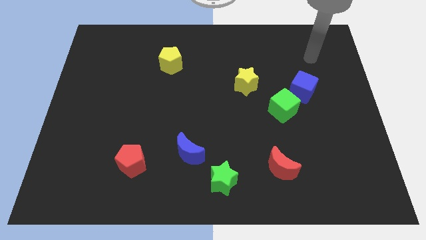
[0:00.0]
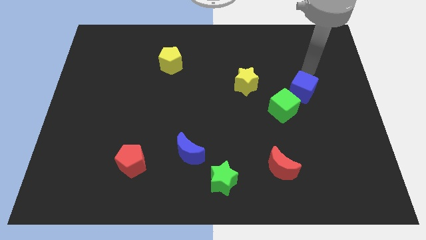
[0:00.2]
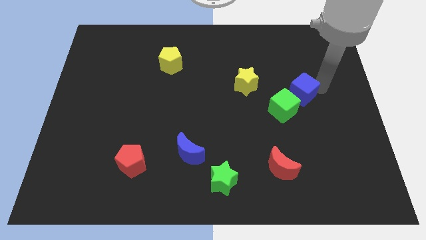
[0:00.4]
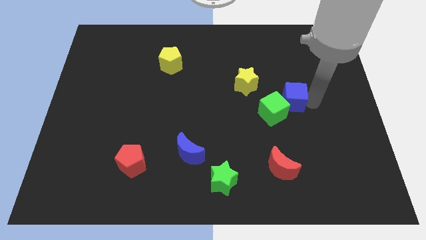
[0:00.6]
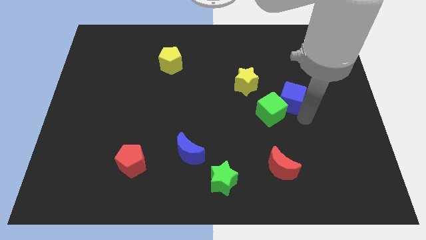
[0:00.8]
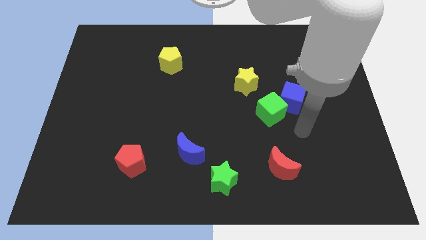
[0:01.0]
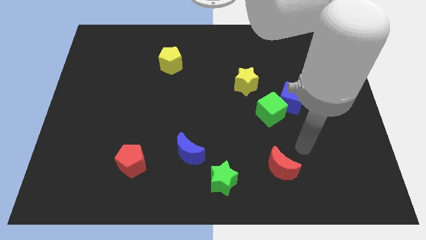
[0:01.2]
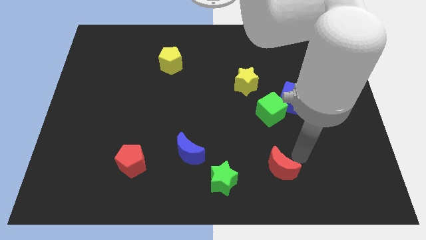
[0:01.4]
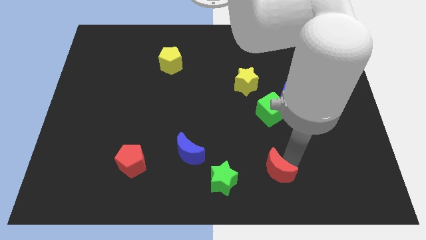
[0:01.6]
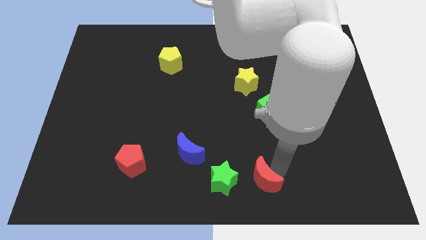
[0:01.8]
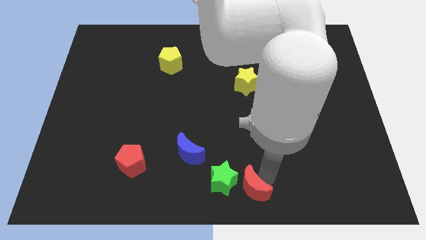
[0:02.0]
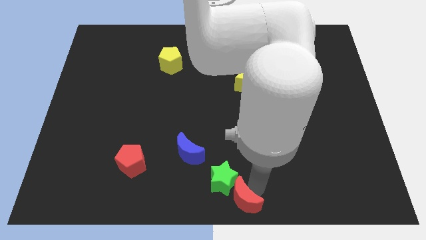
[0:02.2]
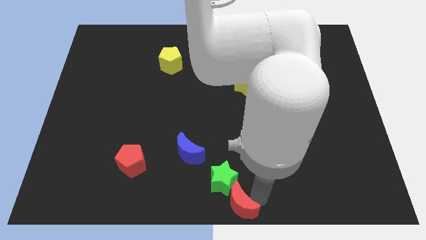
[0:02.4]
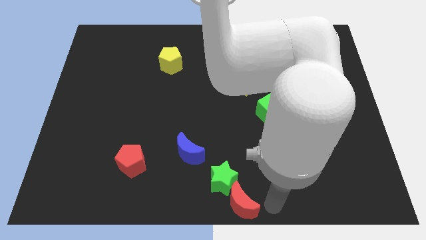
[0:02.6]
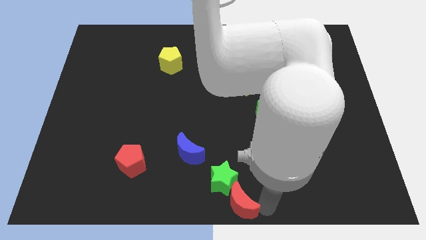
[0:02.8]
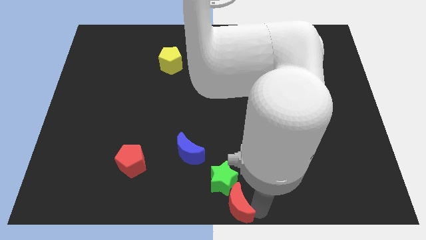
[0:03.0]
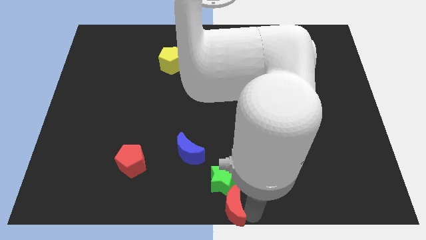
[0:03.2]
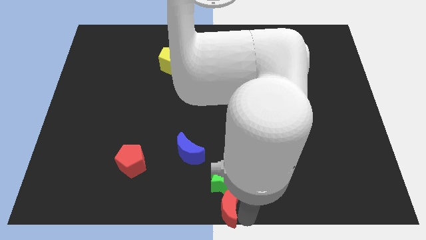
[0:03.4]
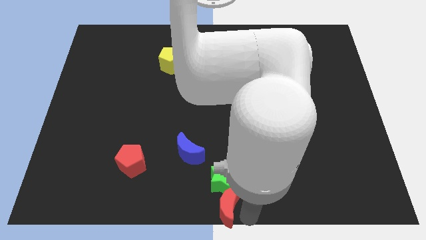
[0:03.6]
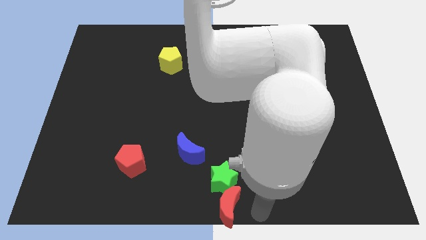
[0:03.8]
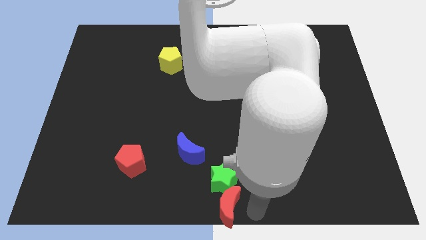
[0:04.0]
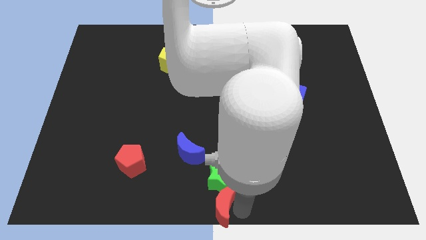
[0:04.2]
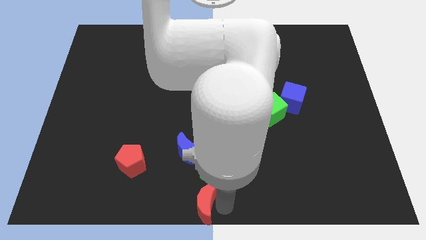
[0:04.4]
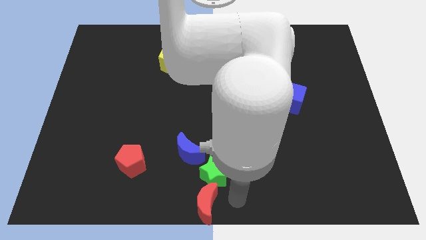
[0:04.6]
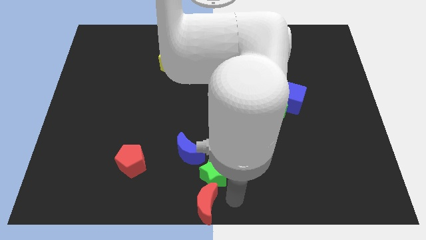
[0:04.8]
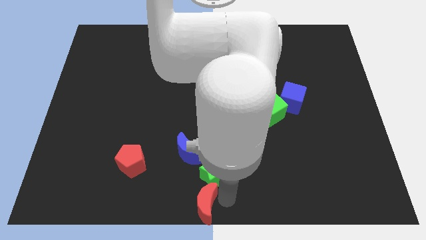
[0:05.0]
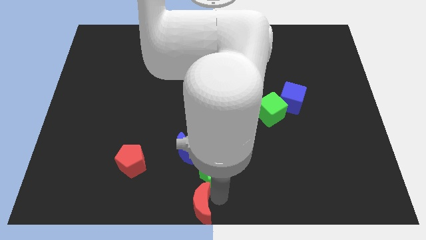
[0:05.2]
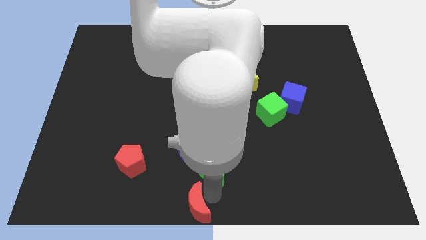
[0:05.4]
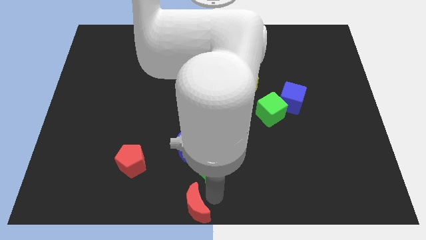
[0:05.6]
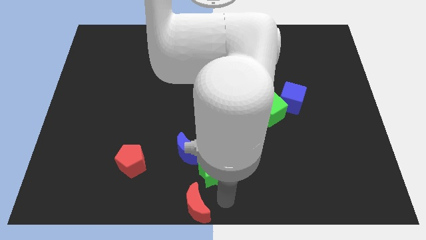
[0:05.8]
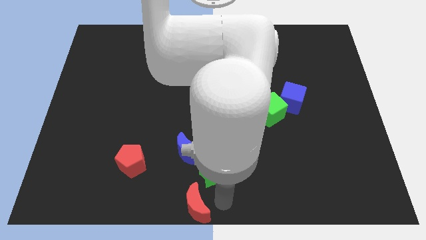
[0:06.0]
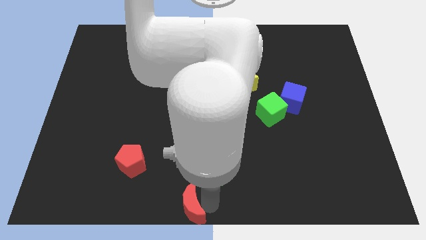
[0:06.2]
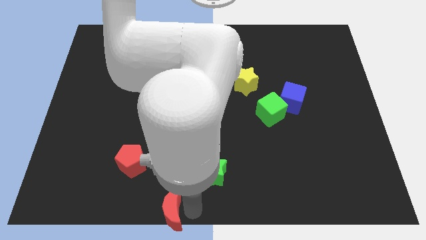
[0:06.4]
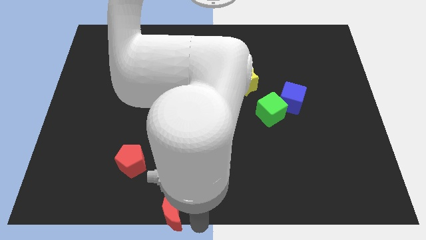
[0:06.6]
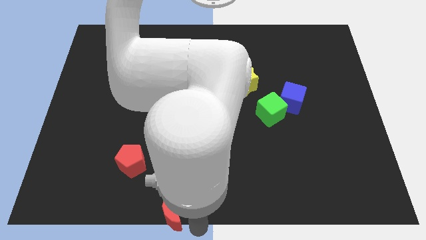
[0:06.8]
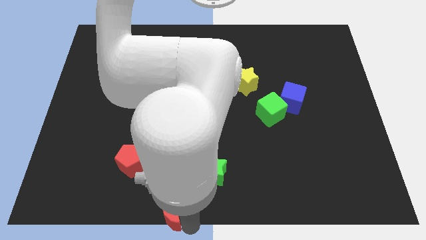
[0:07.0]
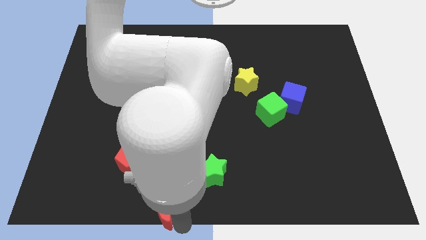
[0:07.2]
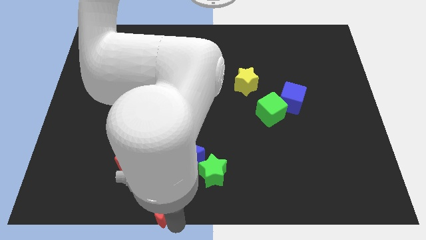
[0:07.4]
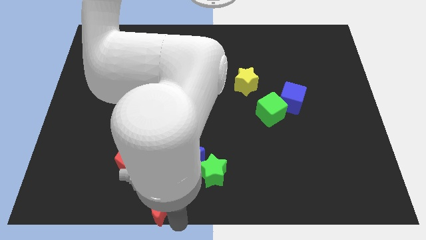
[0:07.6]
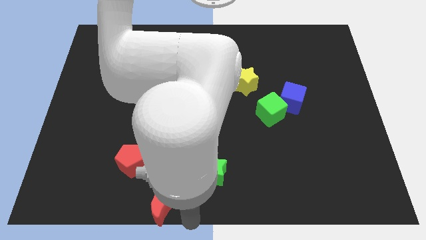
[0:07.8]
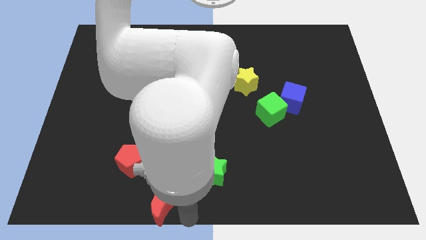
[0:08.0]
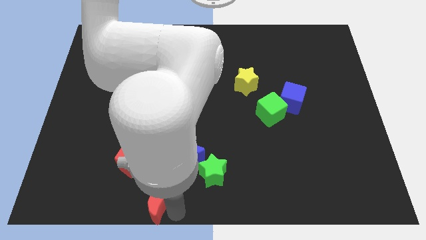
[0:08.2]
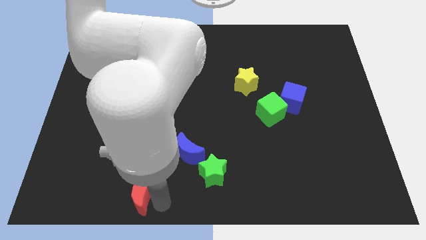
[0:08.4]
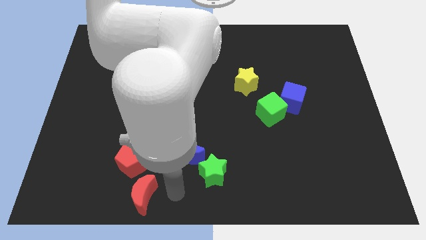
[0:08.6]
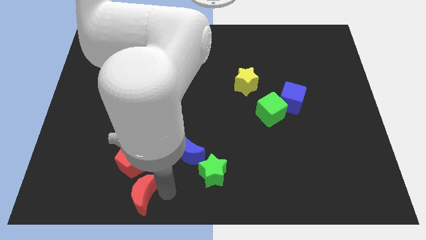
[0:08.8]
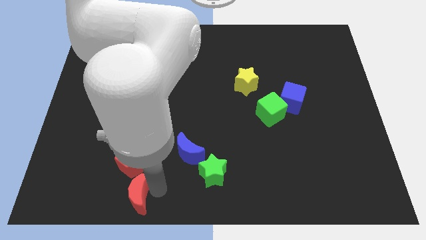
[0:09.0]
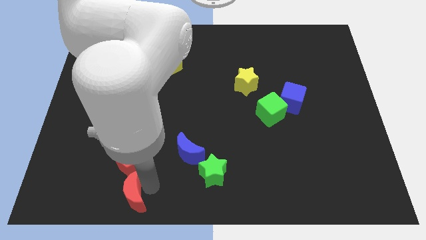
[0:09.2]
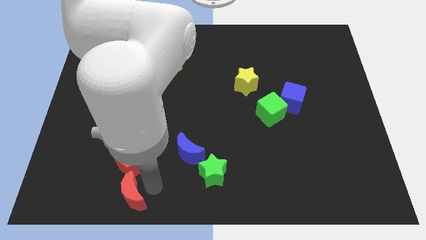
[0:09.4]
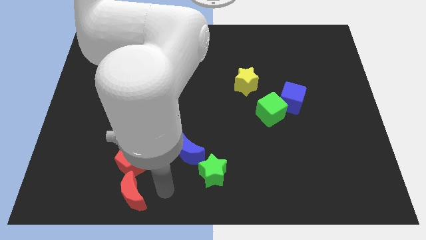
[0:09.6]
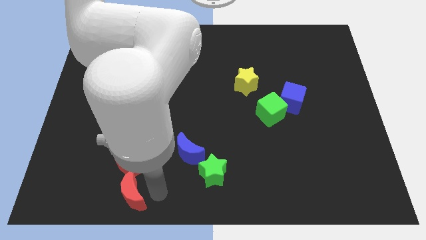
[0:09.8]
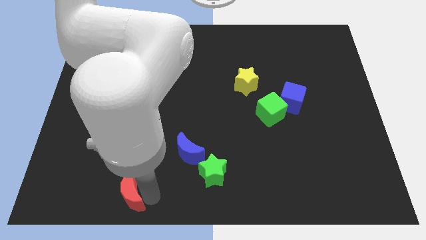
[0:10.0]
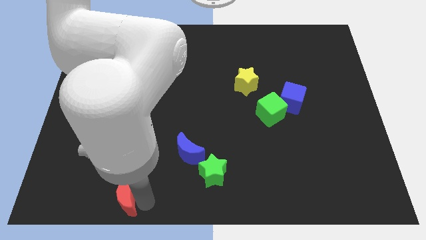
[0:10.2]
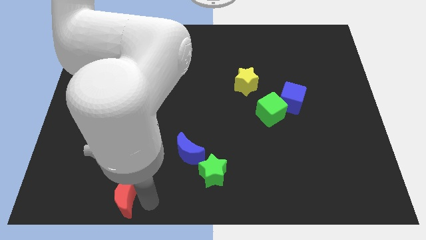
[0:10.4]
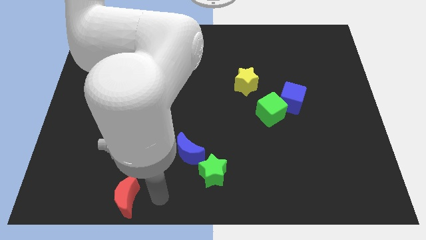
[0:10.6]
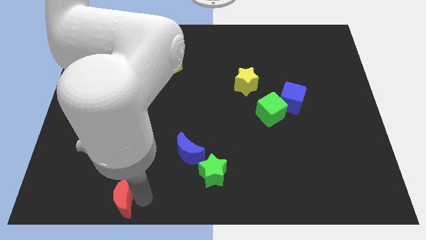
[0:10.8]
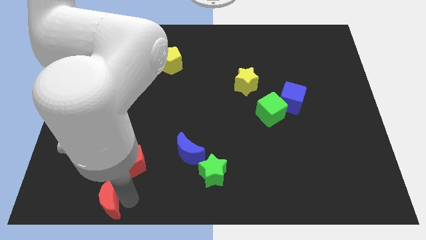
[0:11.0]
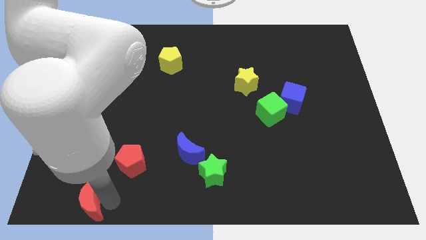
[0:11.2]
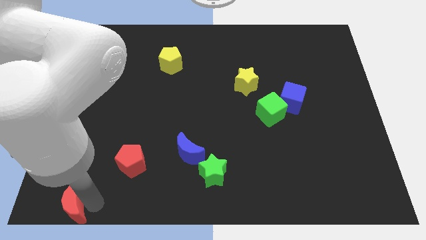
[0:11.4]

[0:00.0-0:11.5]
slide the red moon to the bottom left corner
